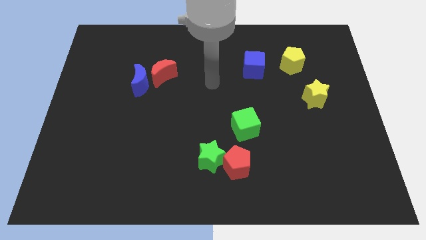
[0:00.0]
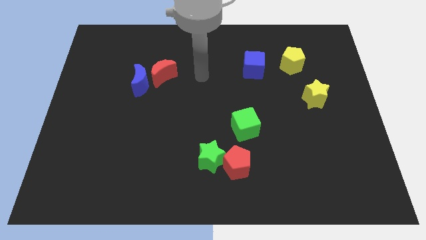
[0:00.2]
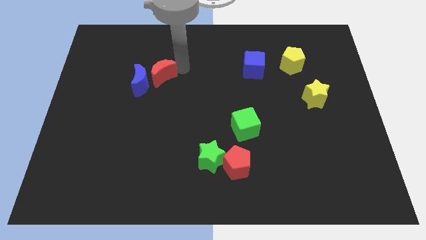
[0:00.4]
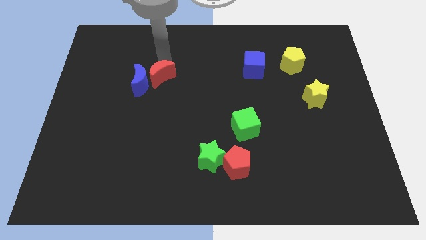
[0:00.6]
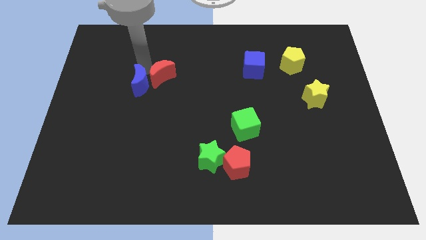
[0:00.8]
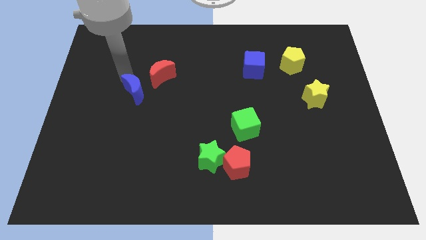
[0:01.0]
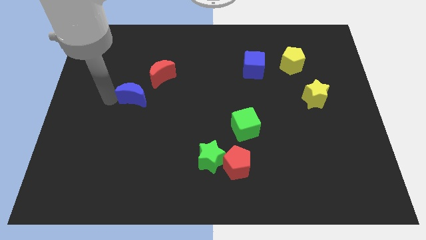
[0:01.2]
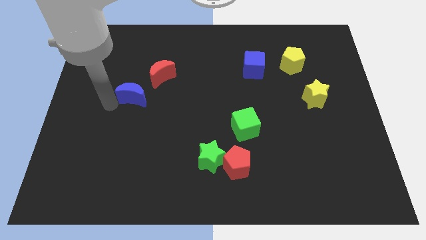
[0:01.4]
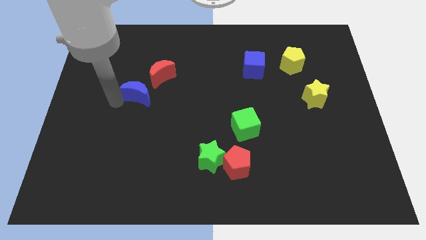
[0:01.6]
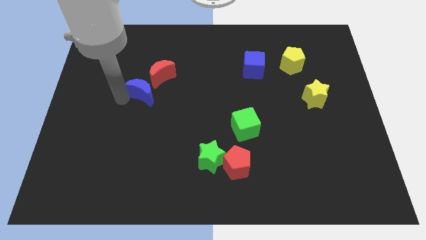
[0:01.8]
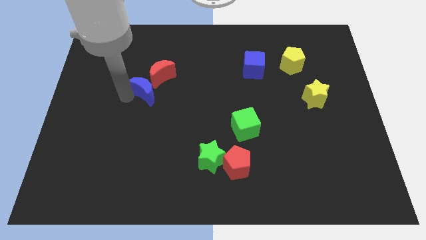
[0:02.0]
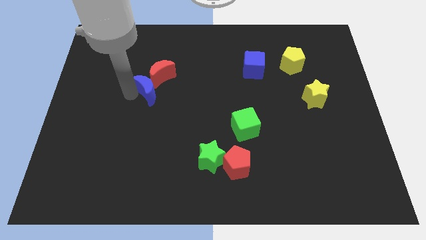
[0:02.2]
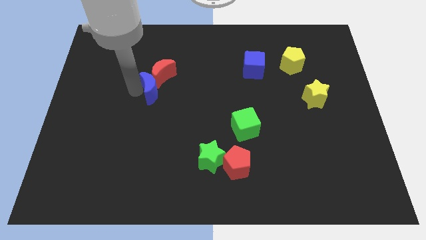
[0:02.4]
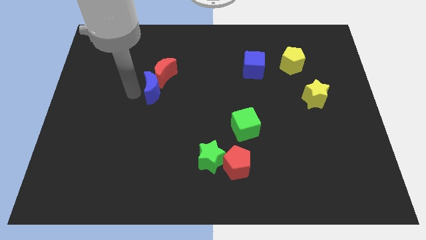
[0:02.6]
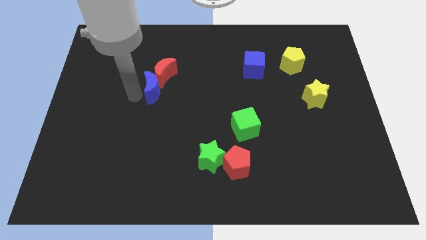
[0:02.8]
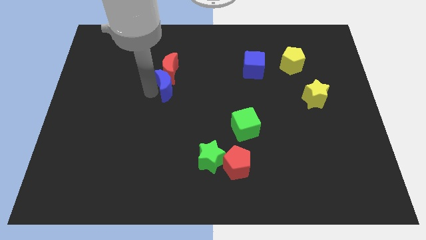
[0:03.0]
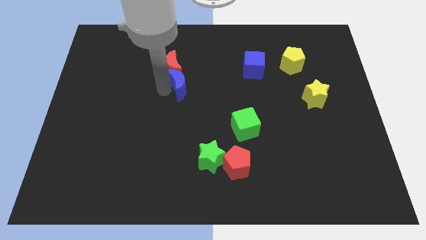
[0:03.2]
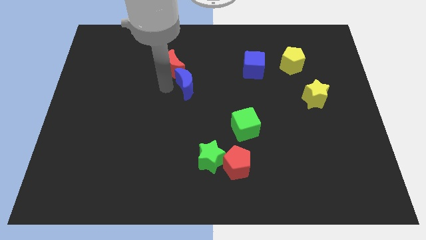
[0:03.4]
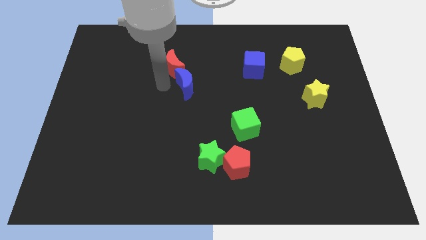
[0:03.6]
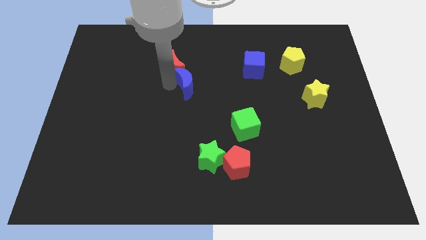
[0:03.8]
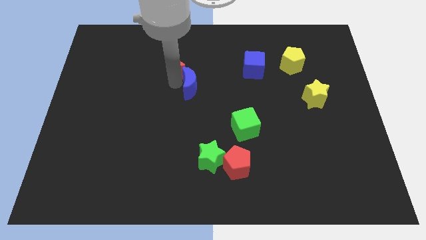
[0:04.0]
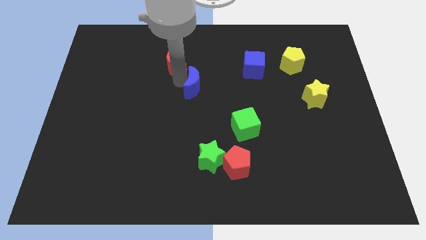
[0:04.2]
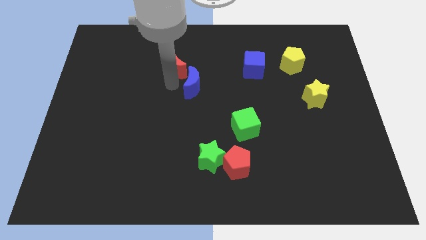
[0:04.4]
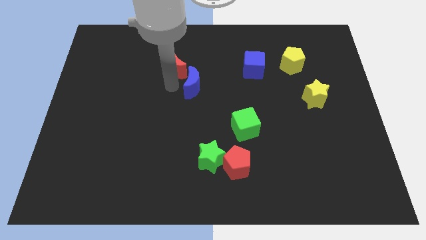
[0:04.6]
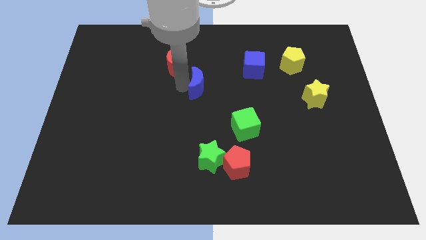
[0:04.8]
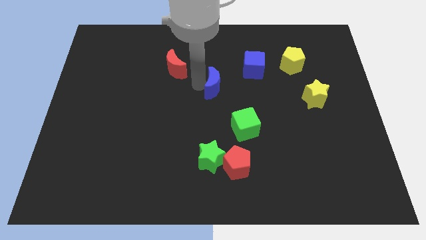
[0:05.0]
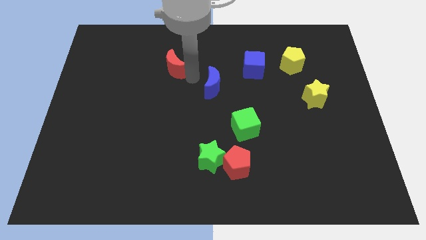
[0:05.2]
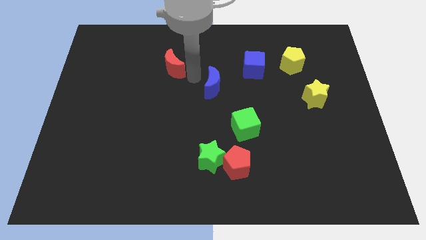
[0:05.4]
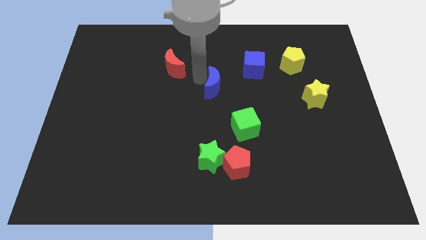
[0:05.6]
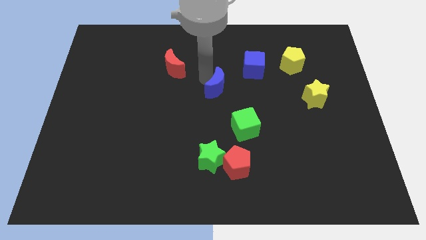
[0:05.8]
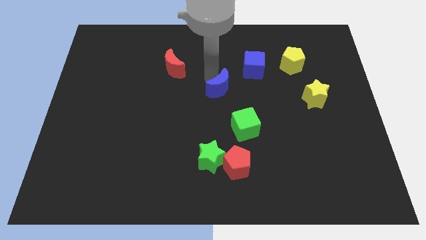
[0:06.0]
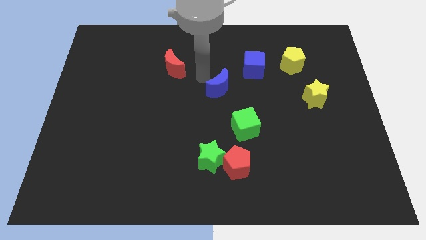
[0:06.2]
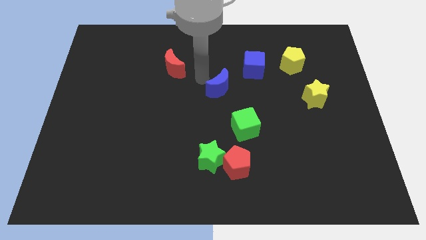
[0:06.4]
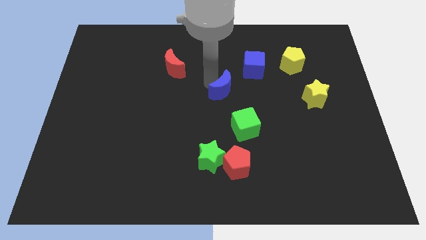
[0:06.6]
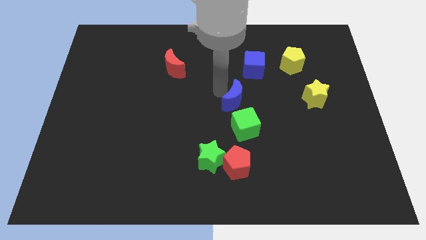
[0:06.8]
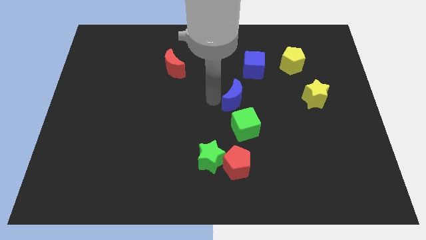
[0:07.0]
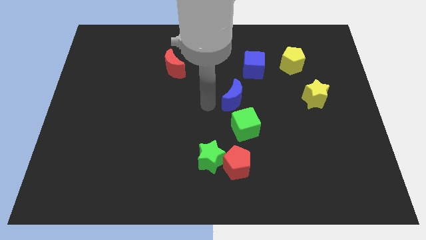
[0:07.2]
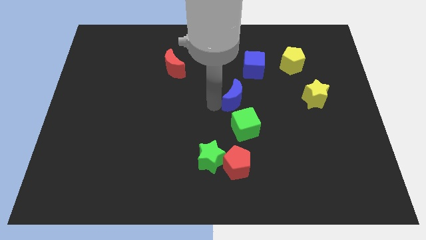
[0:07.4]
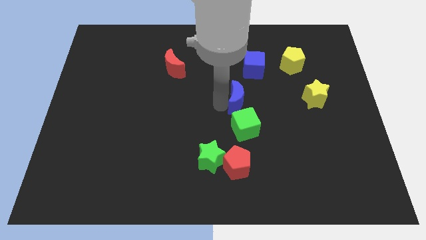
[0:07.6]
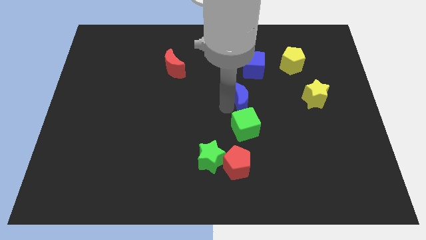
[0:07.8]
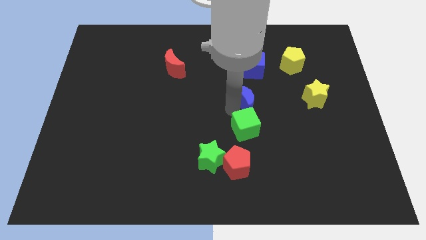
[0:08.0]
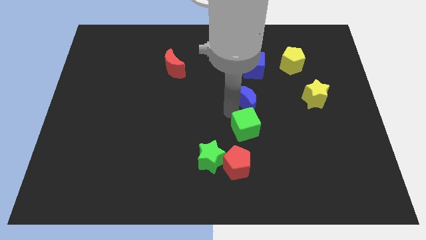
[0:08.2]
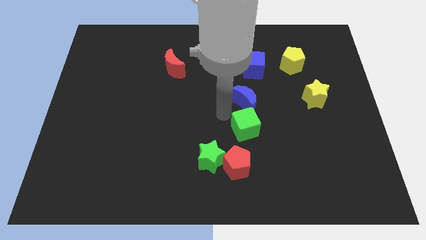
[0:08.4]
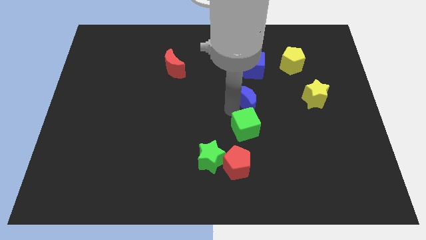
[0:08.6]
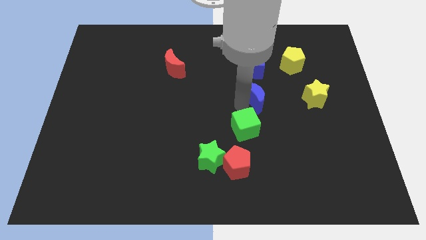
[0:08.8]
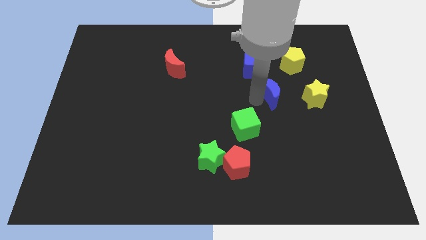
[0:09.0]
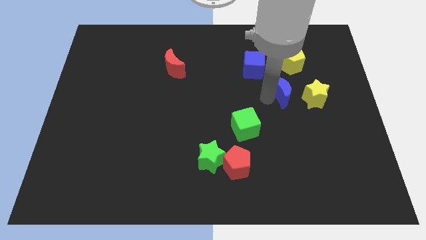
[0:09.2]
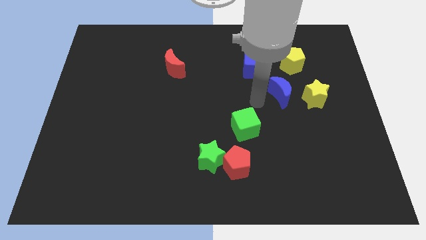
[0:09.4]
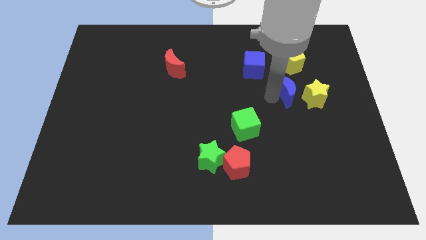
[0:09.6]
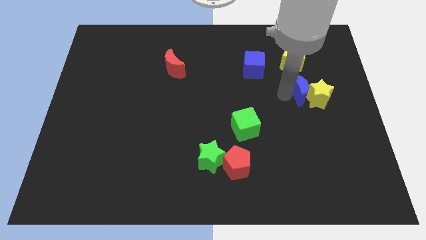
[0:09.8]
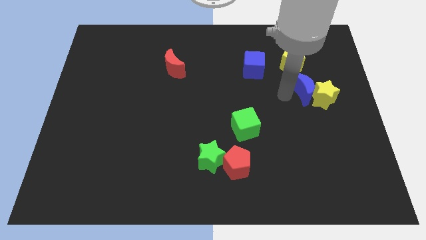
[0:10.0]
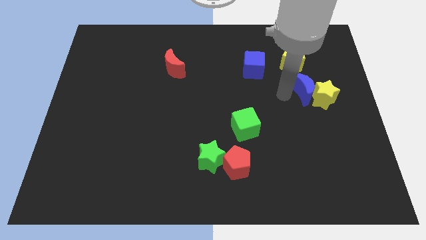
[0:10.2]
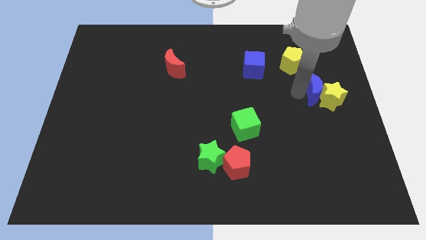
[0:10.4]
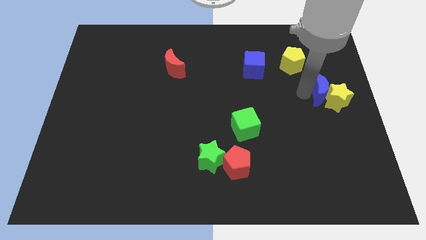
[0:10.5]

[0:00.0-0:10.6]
put the blue moon to the right side of the board

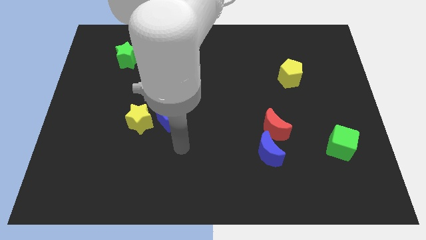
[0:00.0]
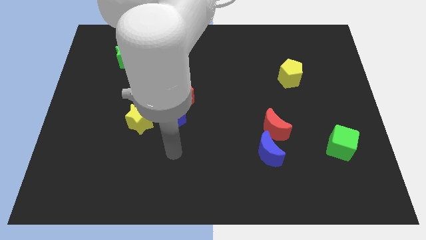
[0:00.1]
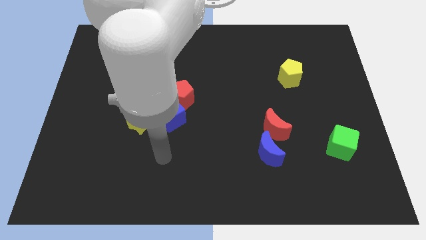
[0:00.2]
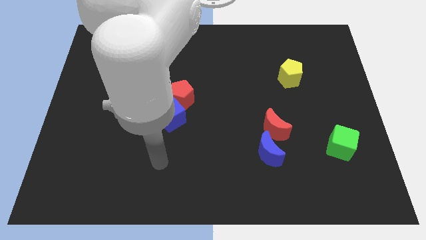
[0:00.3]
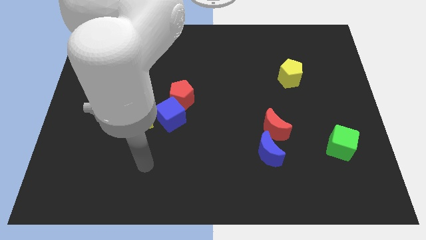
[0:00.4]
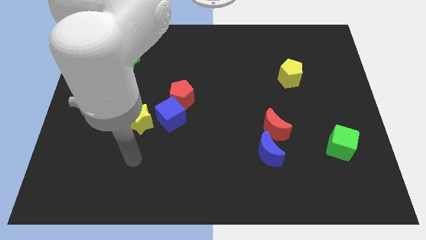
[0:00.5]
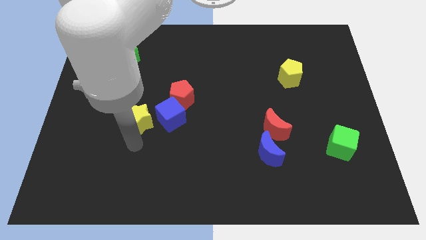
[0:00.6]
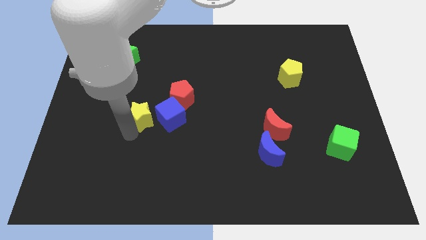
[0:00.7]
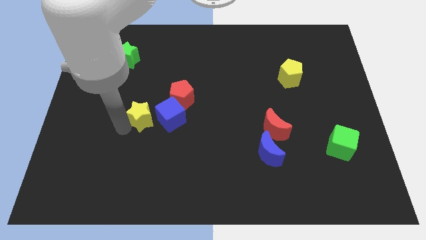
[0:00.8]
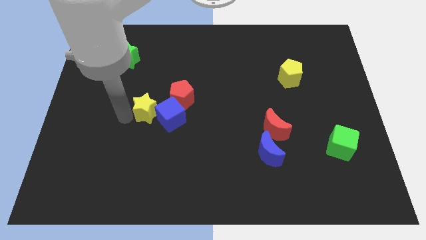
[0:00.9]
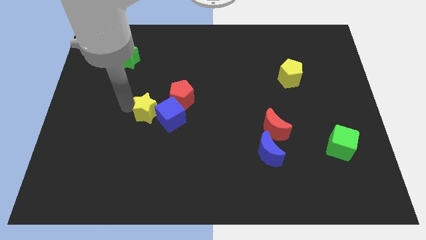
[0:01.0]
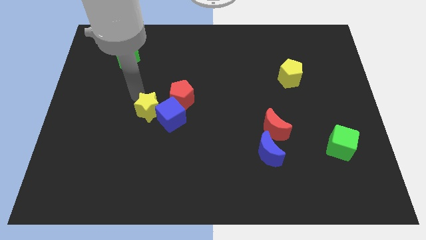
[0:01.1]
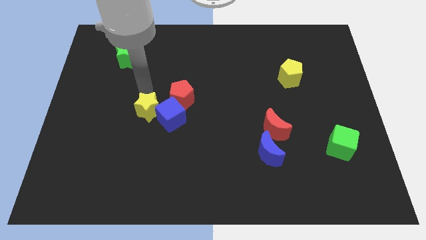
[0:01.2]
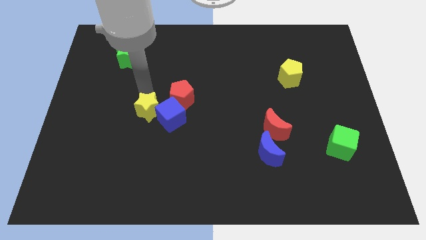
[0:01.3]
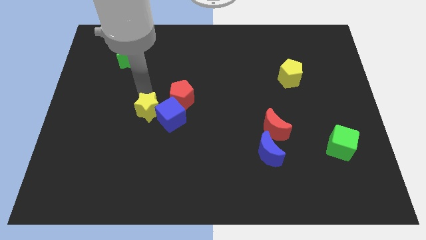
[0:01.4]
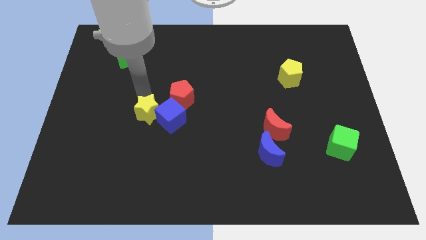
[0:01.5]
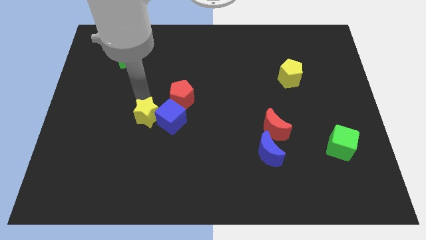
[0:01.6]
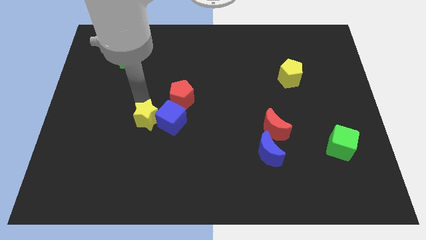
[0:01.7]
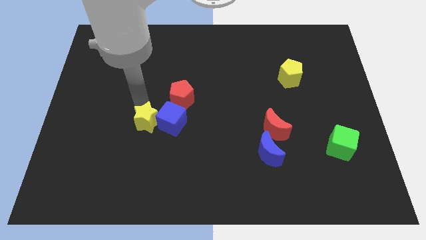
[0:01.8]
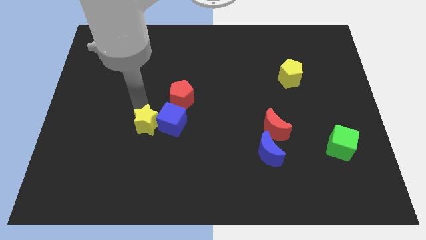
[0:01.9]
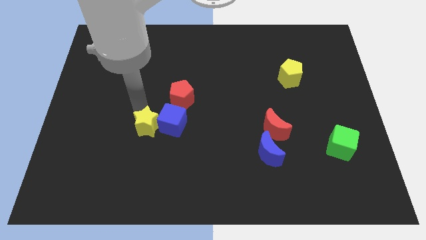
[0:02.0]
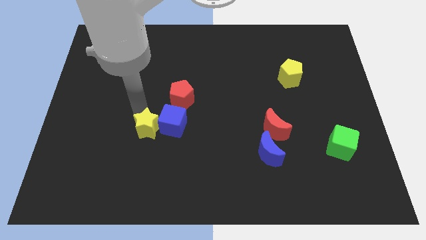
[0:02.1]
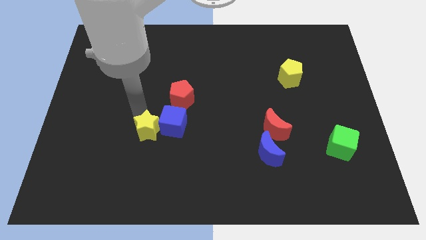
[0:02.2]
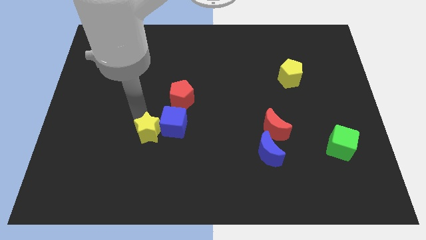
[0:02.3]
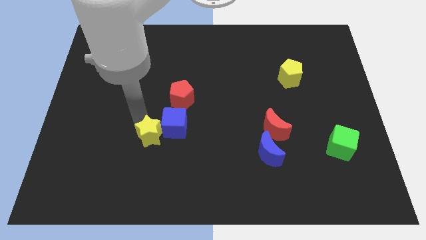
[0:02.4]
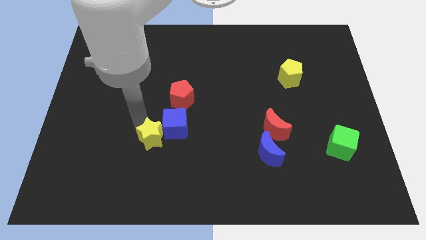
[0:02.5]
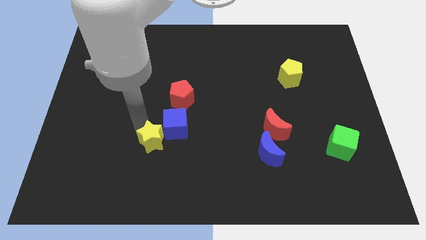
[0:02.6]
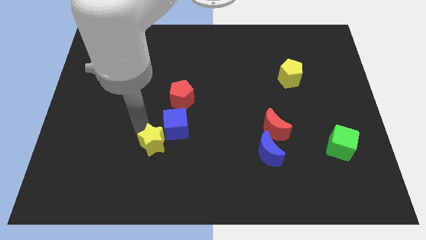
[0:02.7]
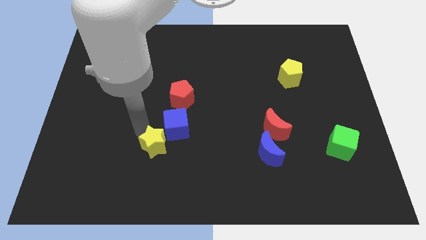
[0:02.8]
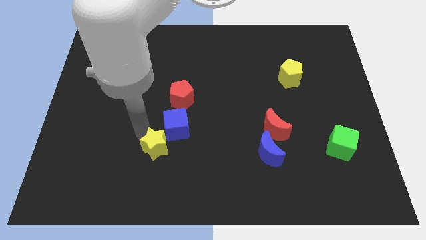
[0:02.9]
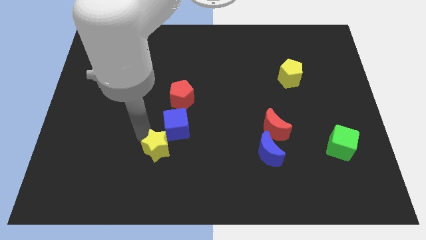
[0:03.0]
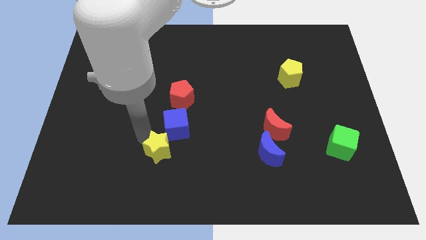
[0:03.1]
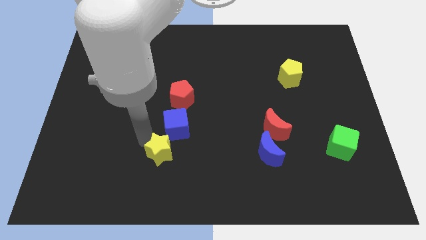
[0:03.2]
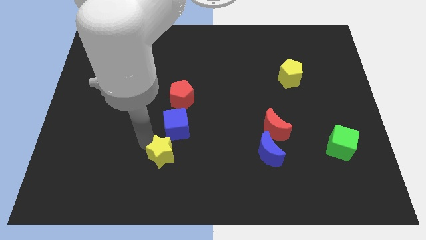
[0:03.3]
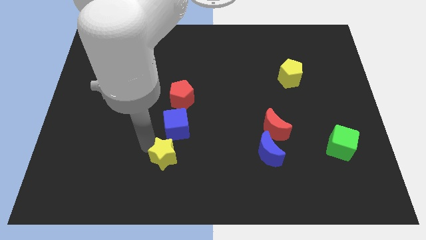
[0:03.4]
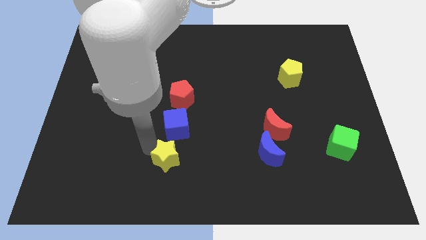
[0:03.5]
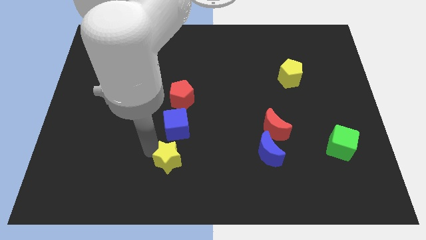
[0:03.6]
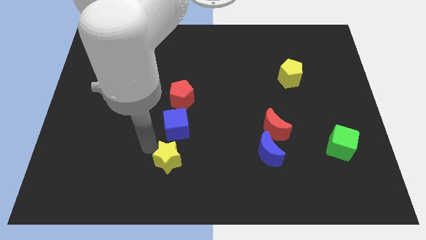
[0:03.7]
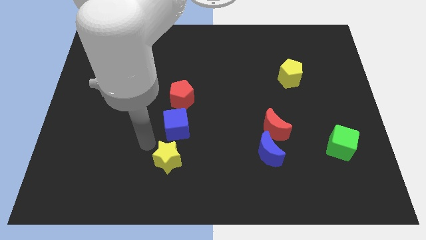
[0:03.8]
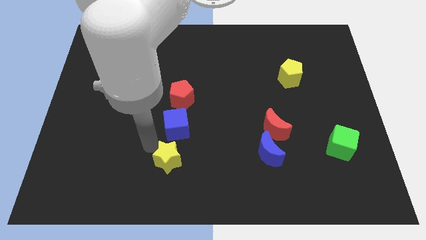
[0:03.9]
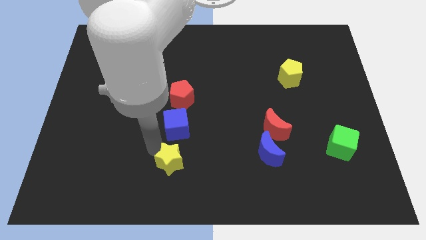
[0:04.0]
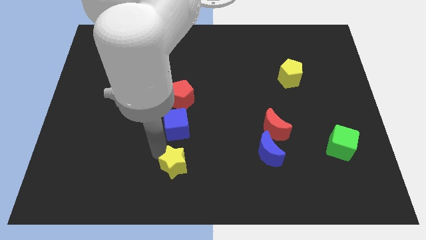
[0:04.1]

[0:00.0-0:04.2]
push the yellow star to the bottom
